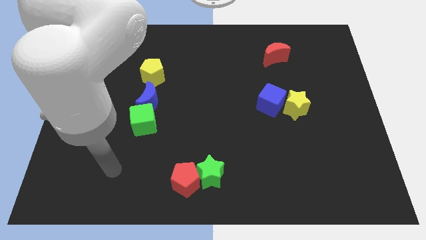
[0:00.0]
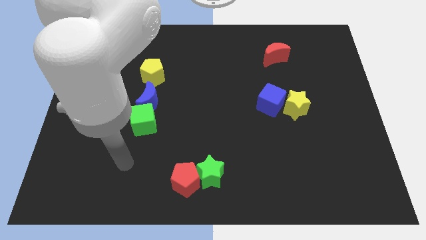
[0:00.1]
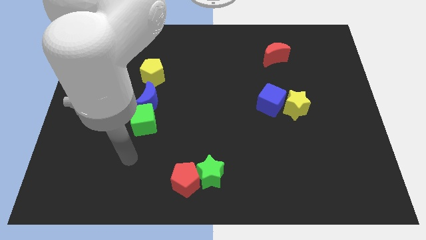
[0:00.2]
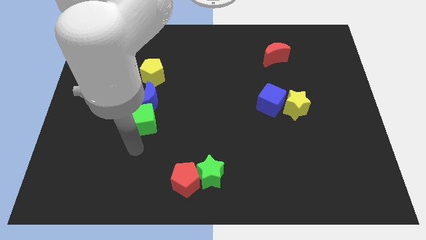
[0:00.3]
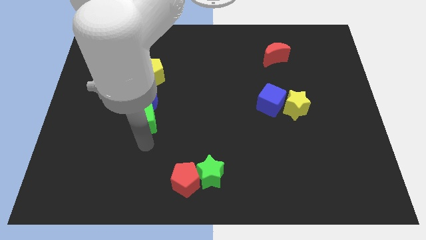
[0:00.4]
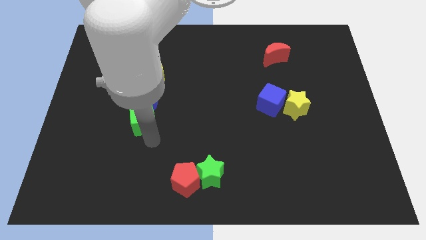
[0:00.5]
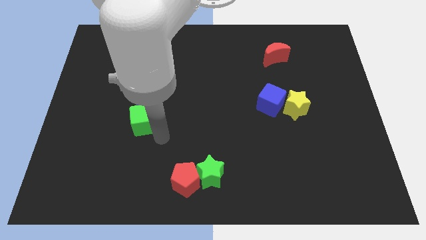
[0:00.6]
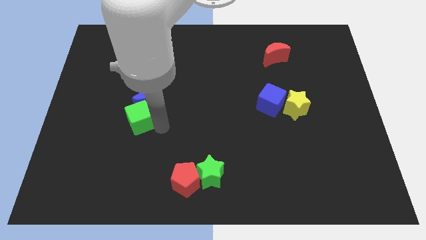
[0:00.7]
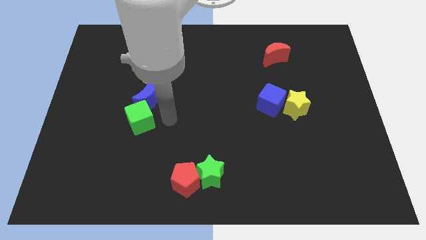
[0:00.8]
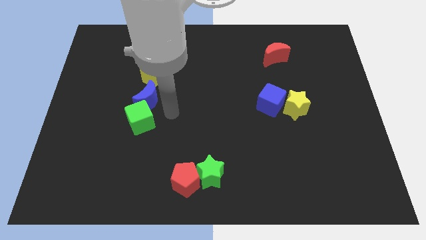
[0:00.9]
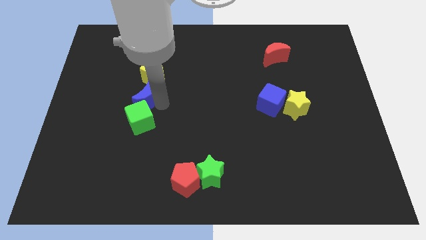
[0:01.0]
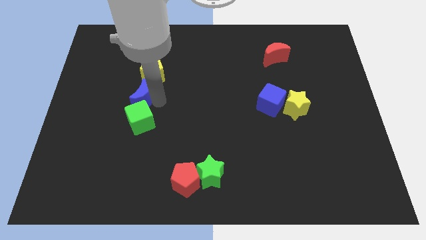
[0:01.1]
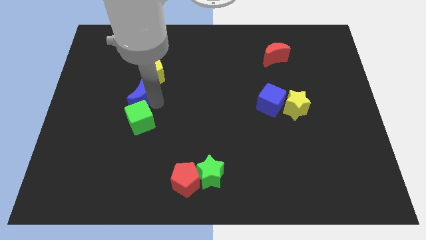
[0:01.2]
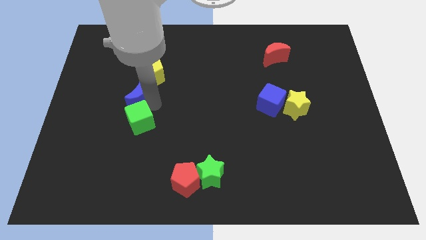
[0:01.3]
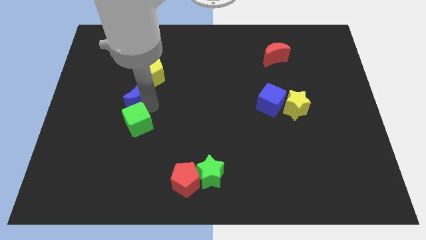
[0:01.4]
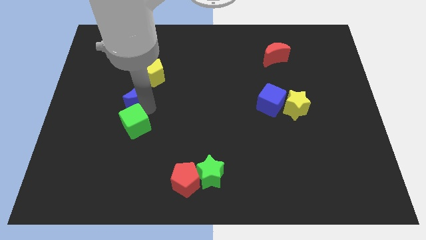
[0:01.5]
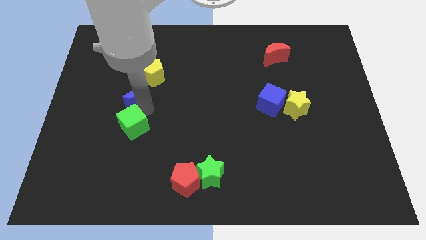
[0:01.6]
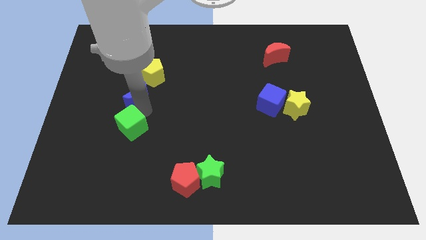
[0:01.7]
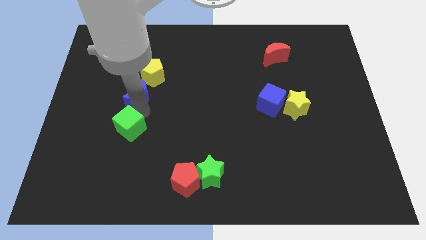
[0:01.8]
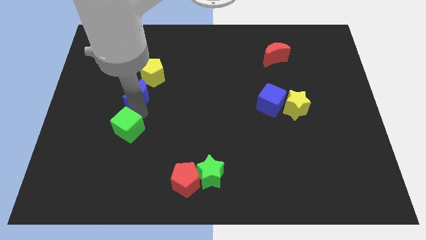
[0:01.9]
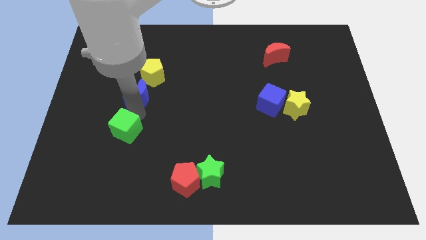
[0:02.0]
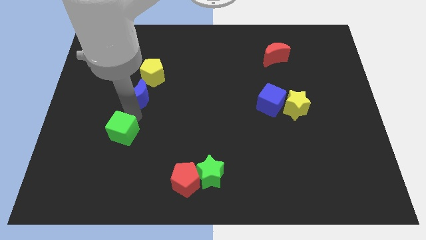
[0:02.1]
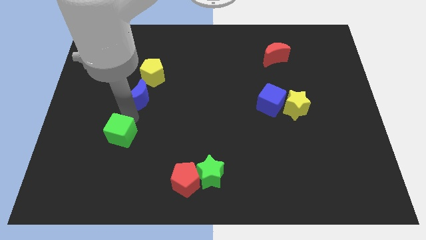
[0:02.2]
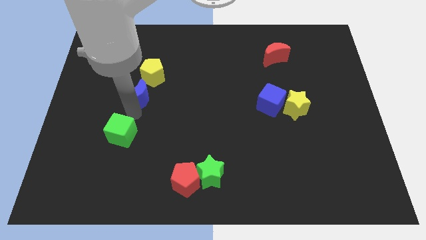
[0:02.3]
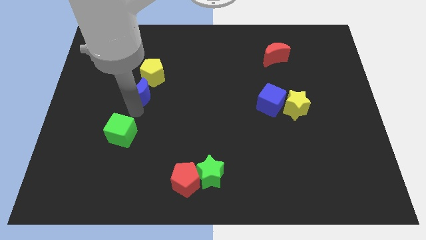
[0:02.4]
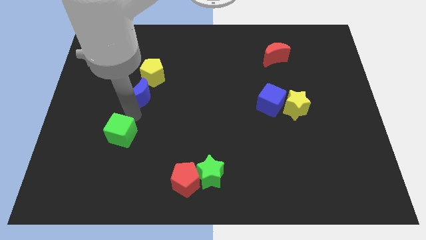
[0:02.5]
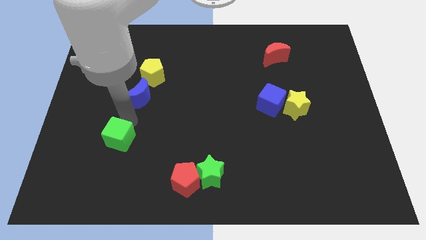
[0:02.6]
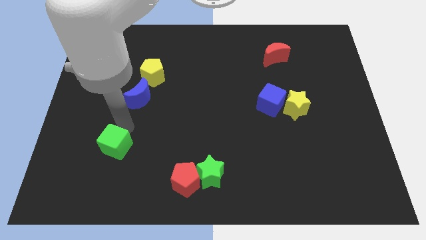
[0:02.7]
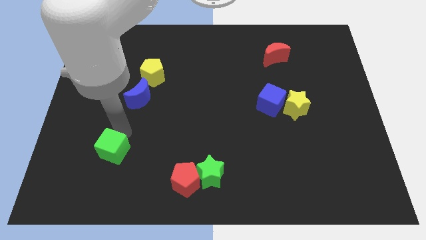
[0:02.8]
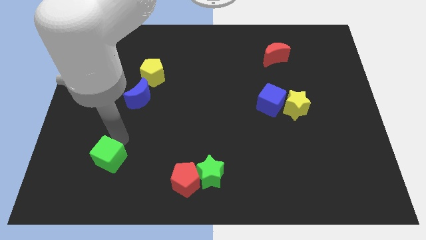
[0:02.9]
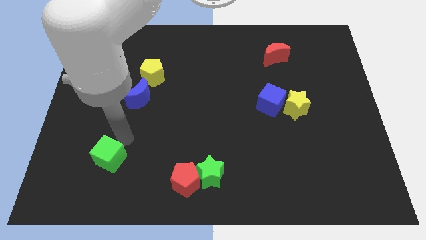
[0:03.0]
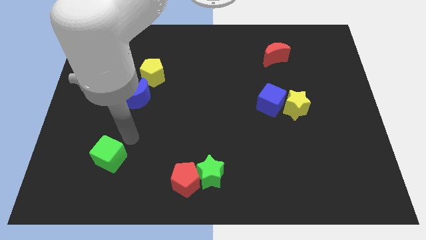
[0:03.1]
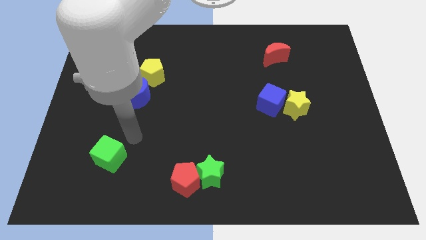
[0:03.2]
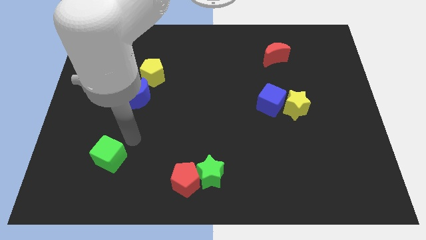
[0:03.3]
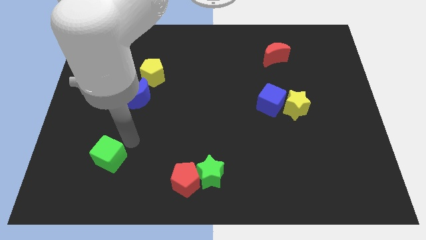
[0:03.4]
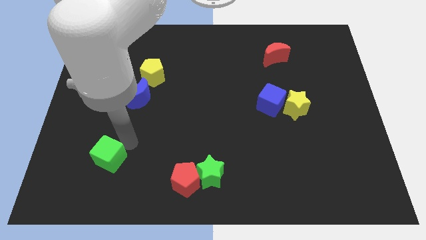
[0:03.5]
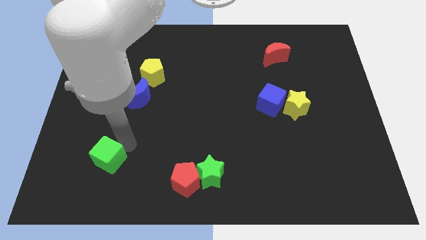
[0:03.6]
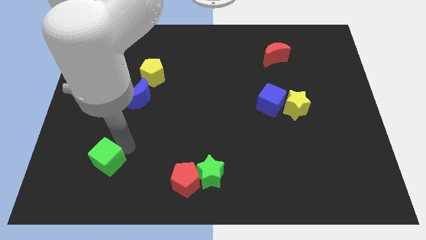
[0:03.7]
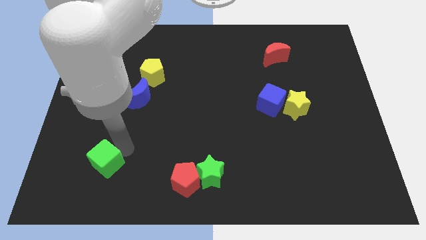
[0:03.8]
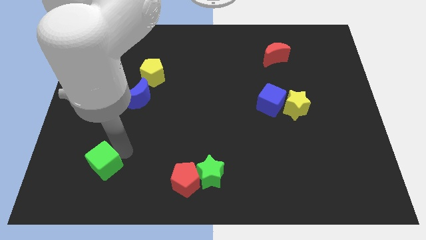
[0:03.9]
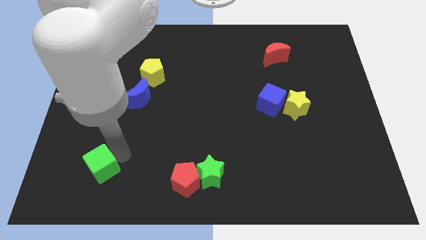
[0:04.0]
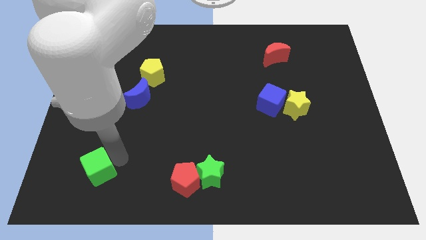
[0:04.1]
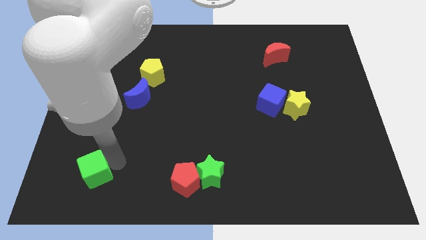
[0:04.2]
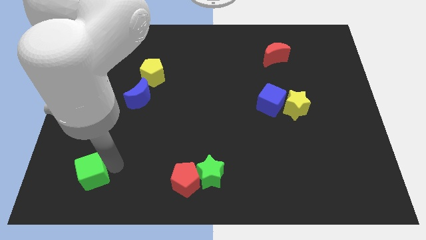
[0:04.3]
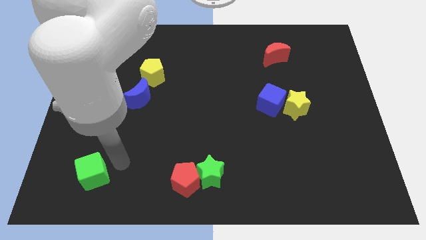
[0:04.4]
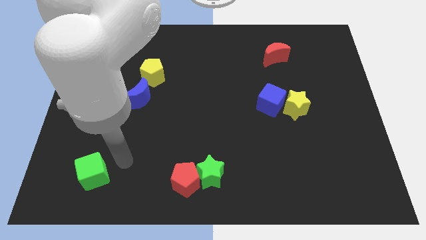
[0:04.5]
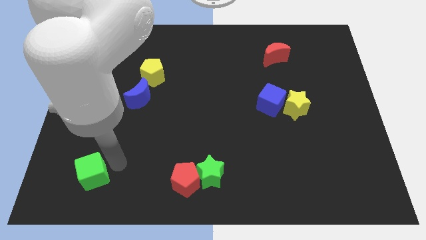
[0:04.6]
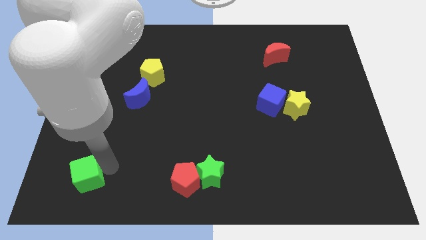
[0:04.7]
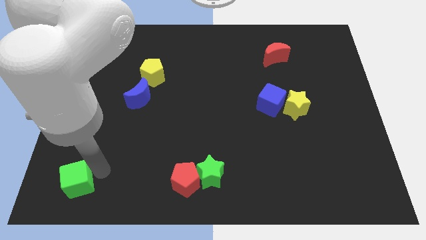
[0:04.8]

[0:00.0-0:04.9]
put the green cube to the lower left corner

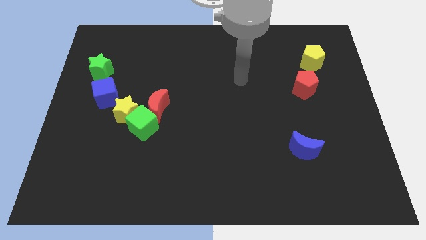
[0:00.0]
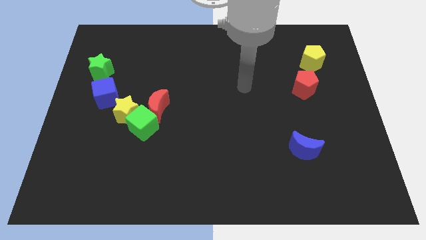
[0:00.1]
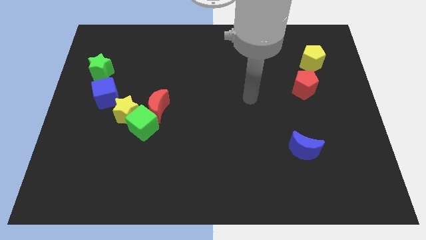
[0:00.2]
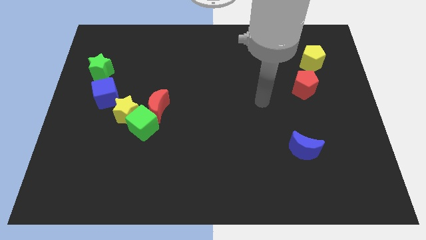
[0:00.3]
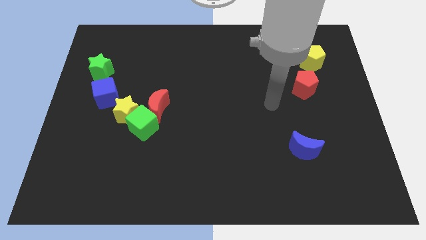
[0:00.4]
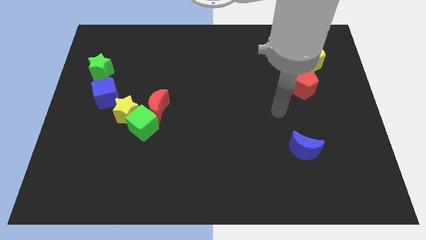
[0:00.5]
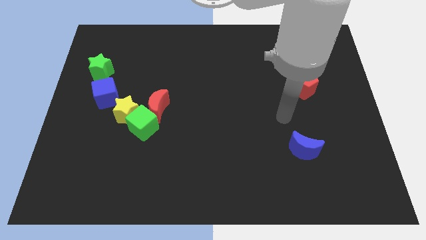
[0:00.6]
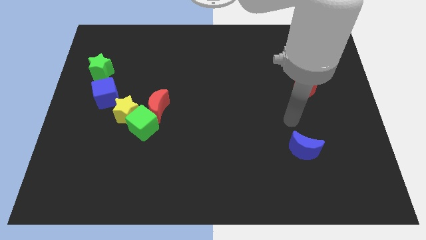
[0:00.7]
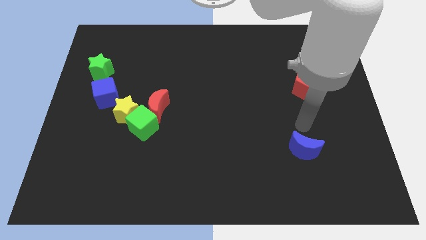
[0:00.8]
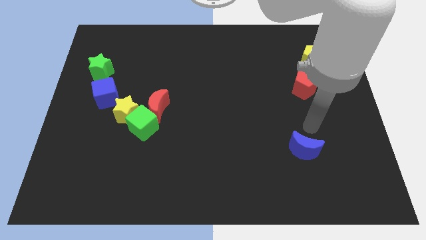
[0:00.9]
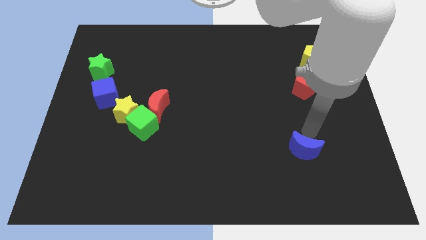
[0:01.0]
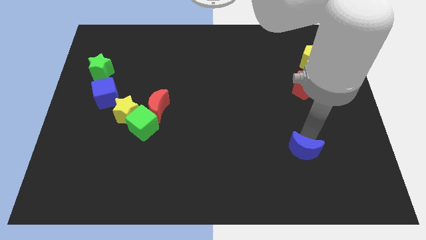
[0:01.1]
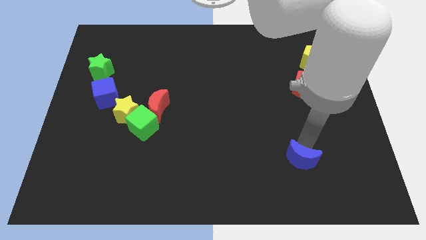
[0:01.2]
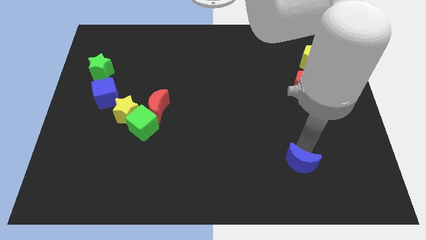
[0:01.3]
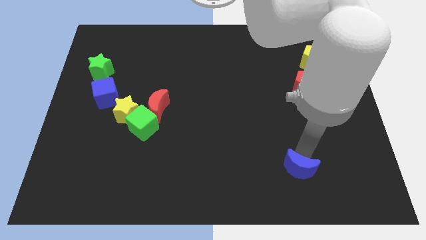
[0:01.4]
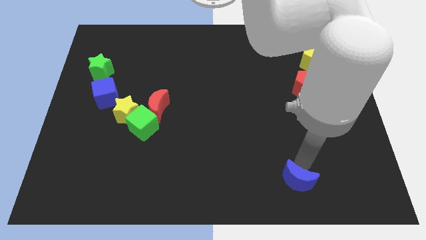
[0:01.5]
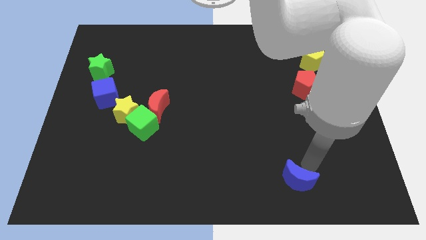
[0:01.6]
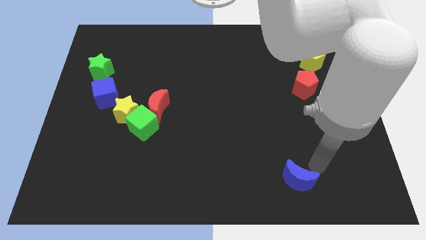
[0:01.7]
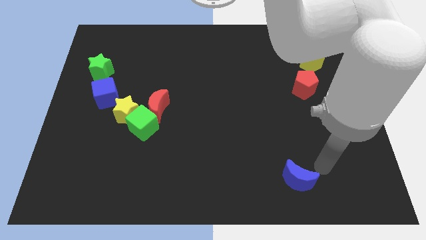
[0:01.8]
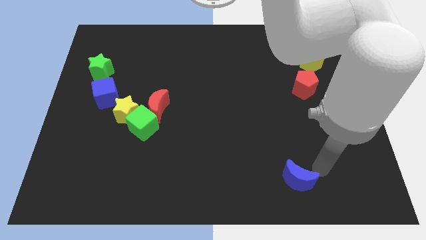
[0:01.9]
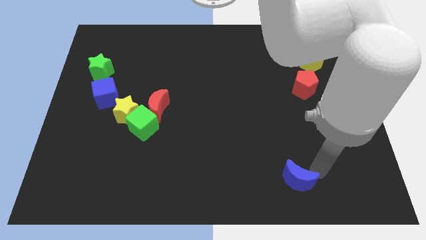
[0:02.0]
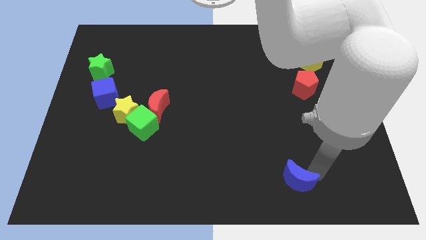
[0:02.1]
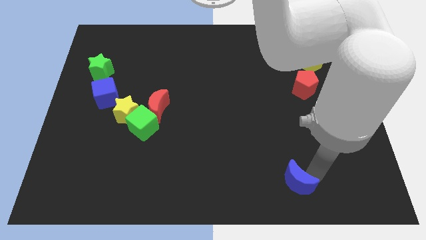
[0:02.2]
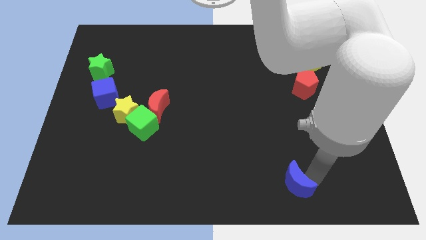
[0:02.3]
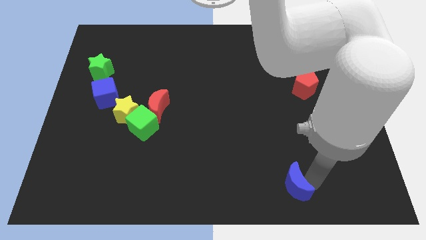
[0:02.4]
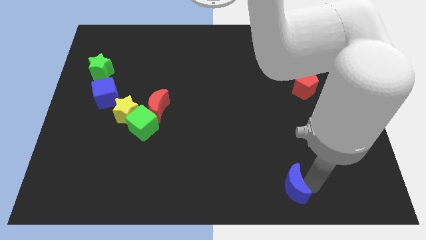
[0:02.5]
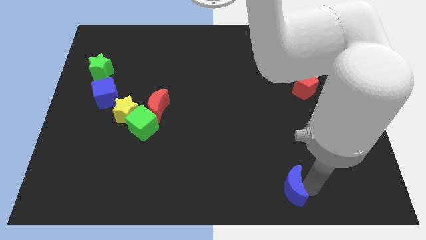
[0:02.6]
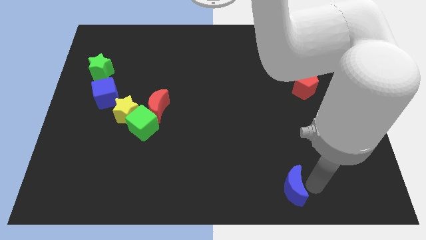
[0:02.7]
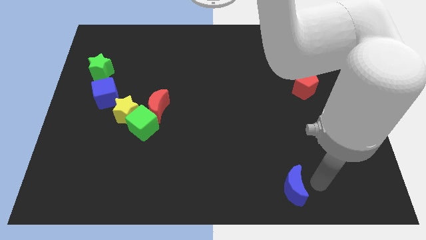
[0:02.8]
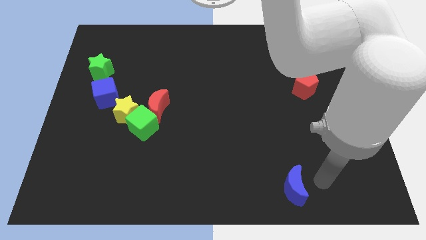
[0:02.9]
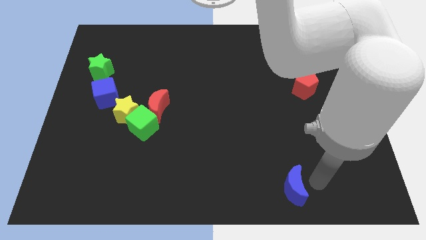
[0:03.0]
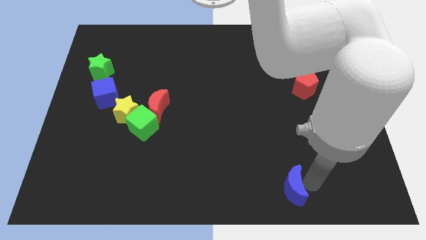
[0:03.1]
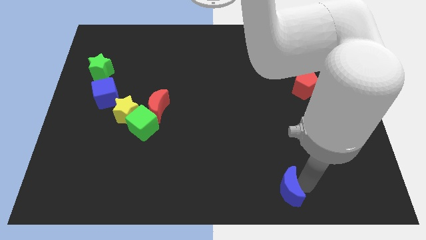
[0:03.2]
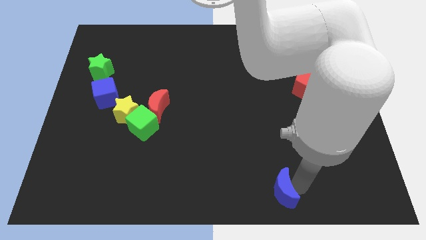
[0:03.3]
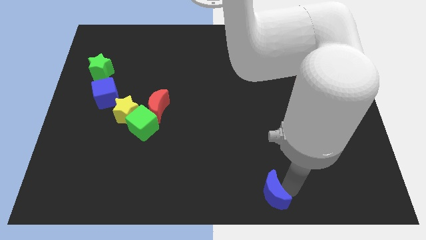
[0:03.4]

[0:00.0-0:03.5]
put the blue moon to the bottom
